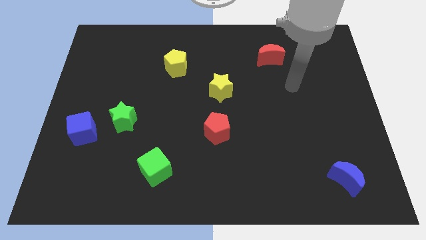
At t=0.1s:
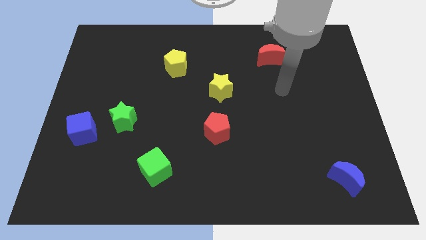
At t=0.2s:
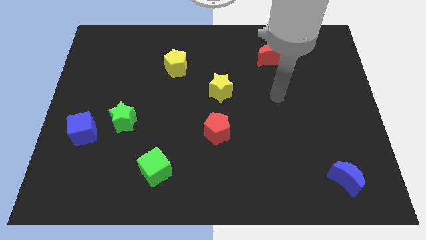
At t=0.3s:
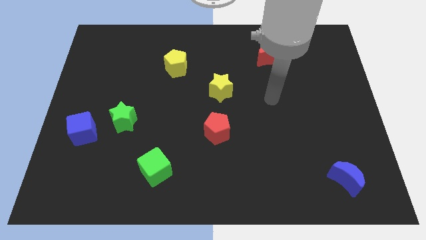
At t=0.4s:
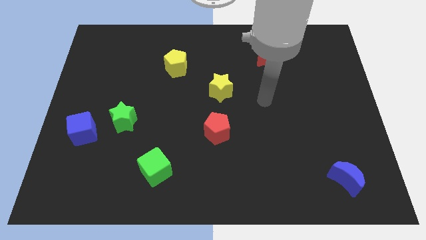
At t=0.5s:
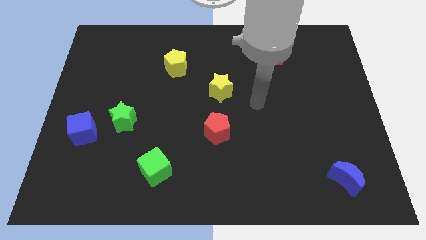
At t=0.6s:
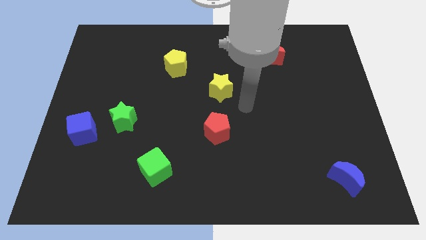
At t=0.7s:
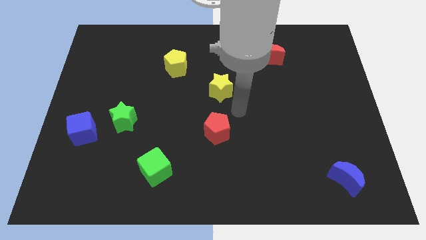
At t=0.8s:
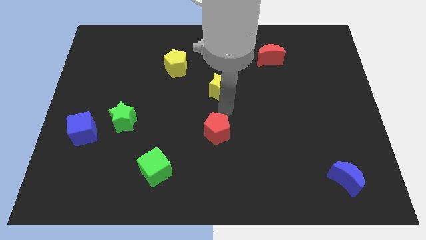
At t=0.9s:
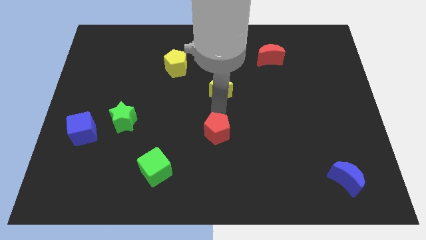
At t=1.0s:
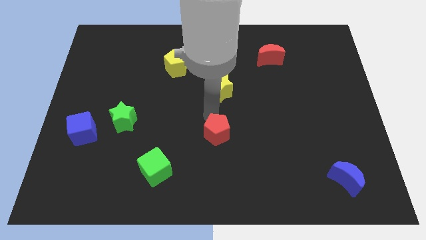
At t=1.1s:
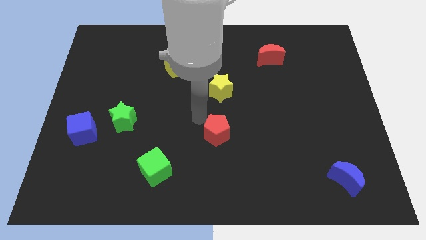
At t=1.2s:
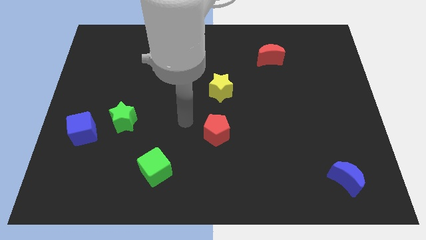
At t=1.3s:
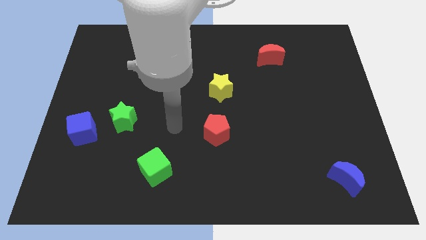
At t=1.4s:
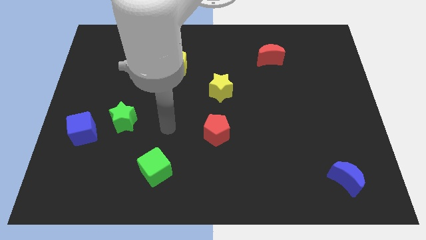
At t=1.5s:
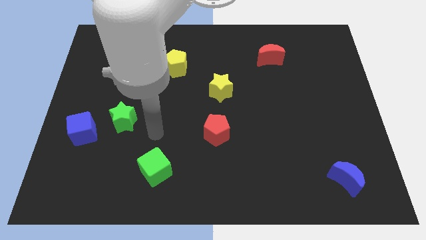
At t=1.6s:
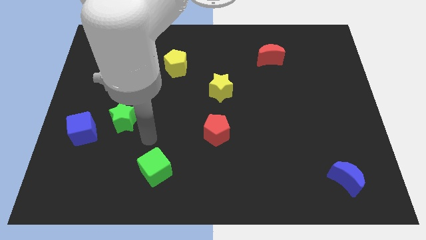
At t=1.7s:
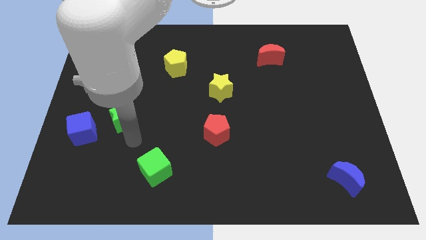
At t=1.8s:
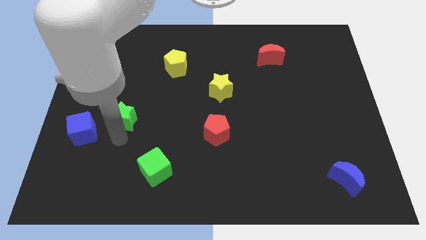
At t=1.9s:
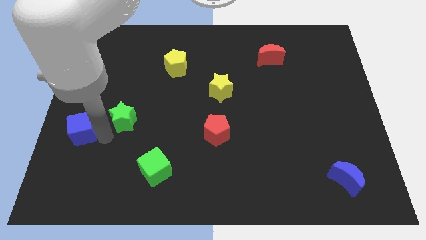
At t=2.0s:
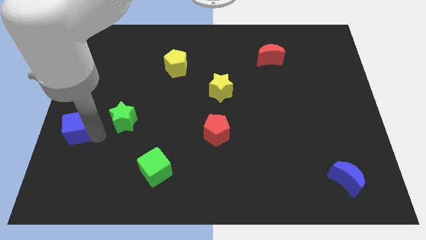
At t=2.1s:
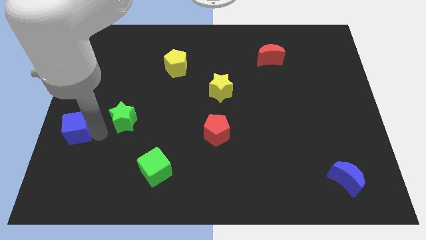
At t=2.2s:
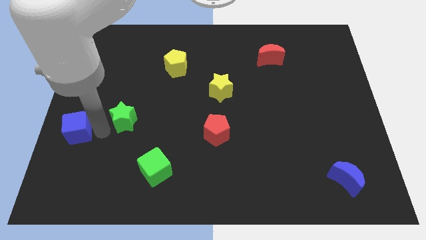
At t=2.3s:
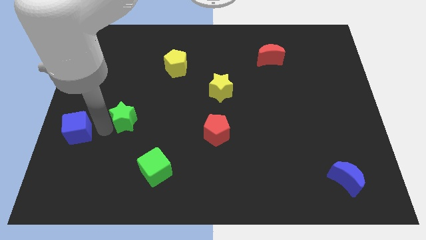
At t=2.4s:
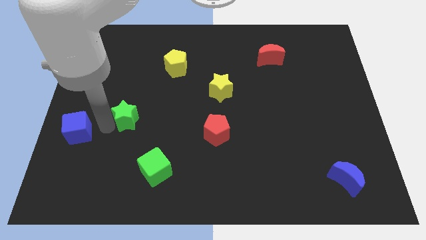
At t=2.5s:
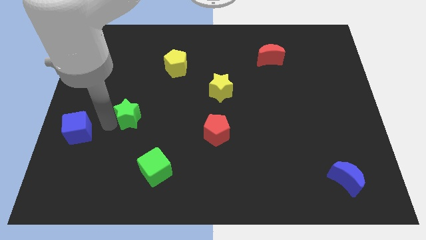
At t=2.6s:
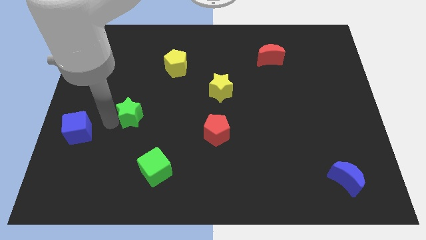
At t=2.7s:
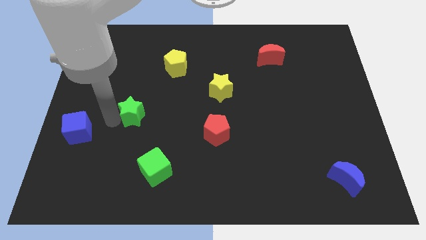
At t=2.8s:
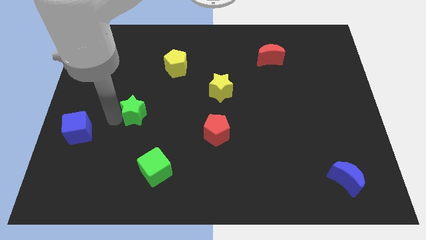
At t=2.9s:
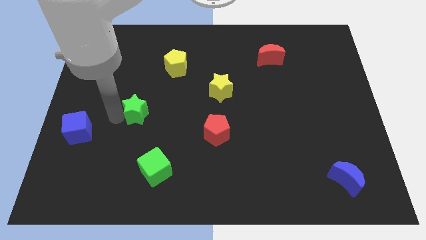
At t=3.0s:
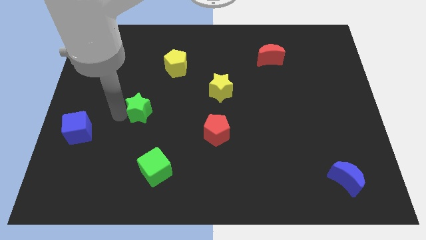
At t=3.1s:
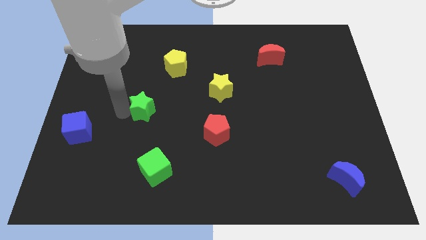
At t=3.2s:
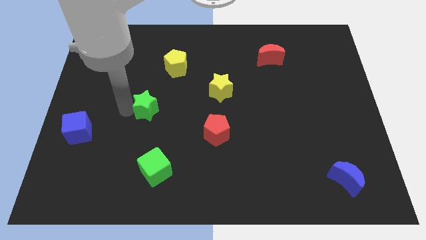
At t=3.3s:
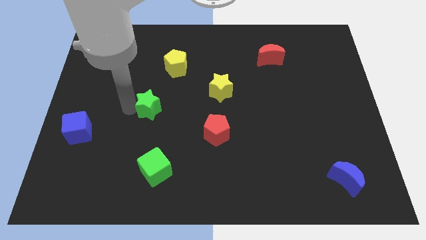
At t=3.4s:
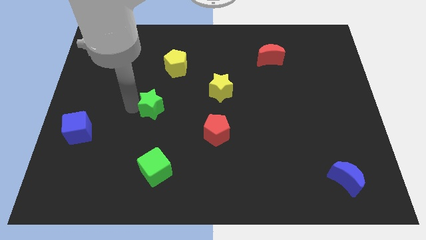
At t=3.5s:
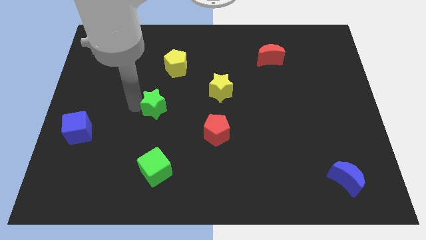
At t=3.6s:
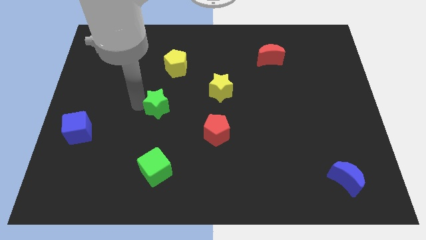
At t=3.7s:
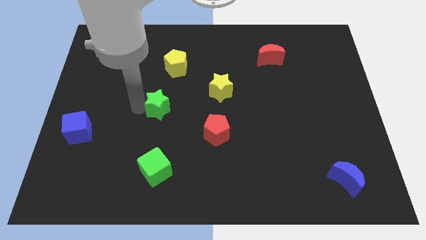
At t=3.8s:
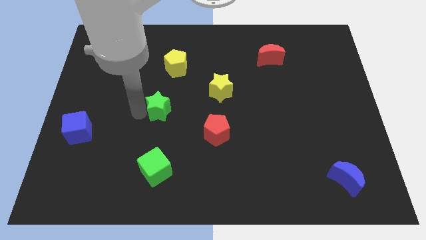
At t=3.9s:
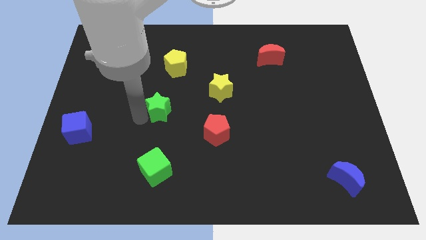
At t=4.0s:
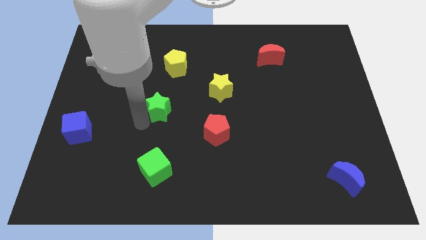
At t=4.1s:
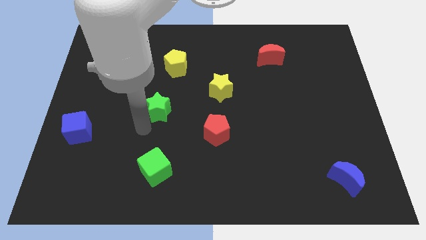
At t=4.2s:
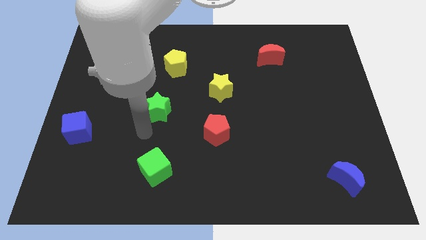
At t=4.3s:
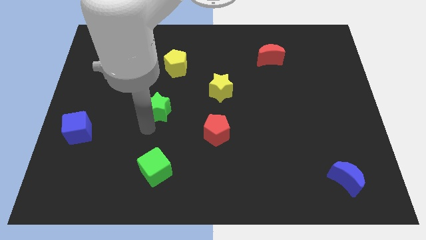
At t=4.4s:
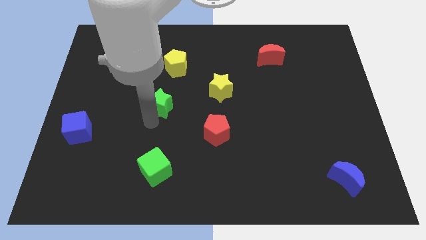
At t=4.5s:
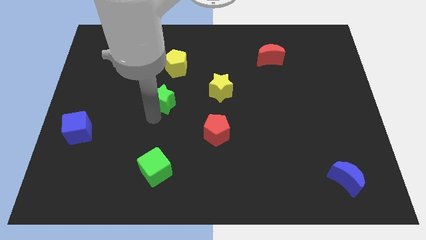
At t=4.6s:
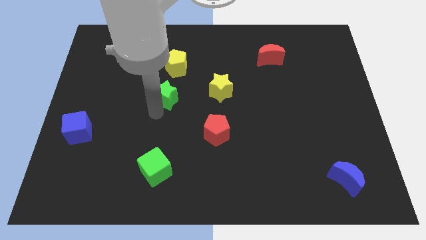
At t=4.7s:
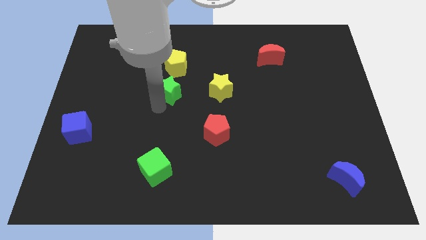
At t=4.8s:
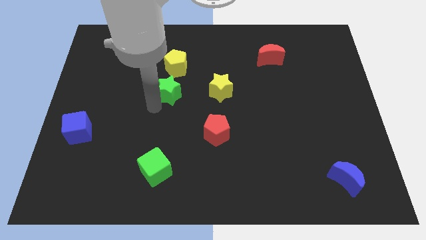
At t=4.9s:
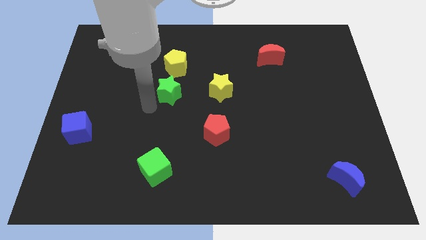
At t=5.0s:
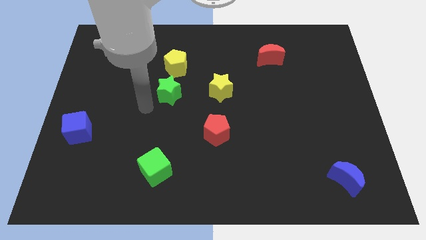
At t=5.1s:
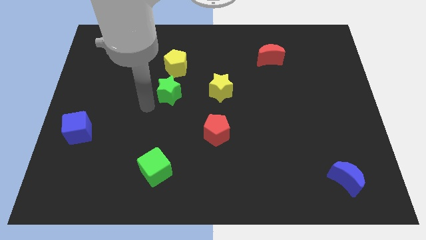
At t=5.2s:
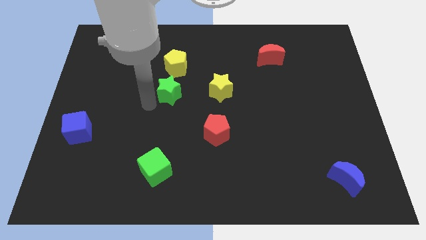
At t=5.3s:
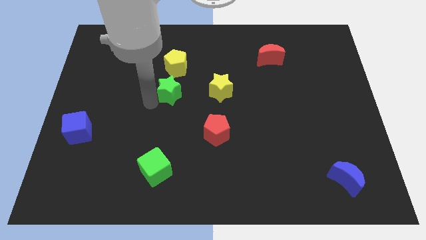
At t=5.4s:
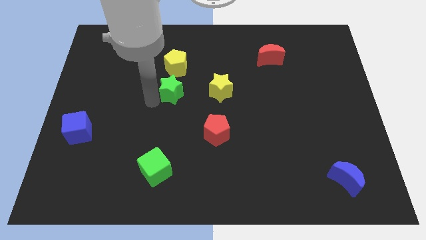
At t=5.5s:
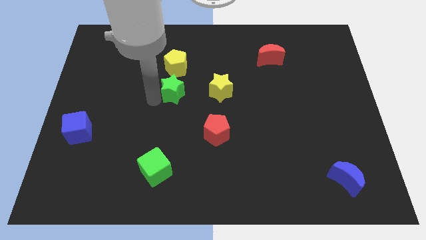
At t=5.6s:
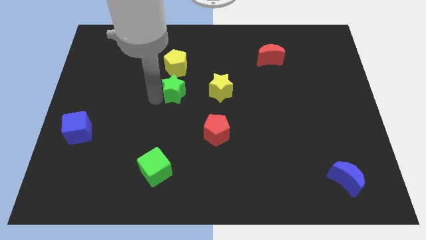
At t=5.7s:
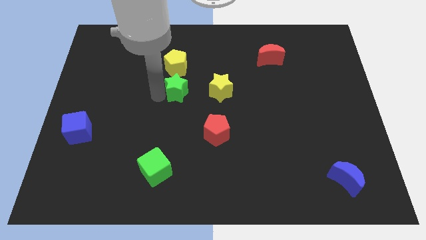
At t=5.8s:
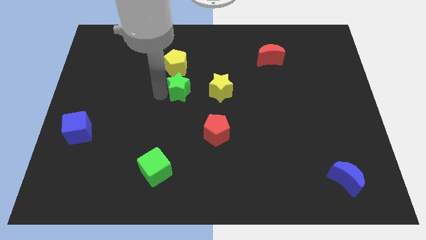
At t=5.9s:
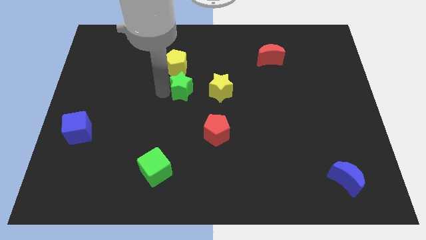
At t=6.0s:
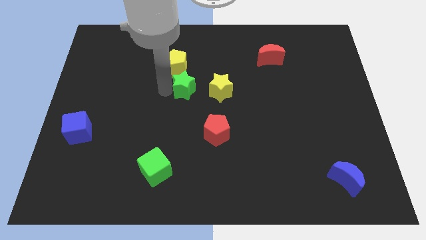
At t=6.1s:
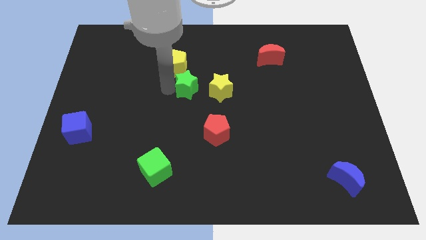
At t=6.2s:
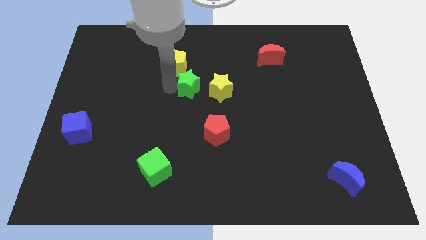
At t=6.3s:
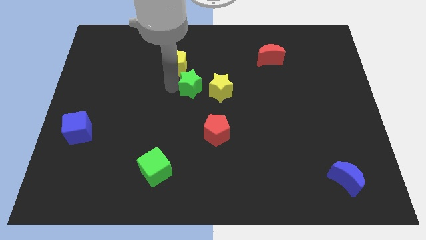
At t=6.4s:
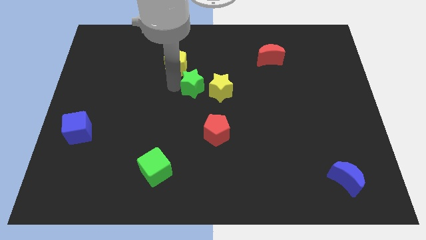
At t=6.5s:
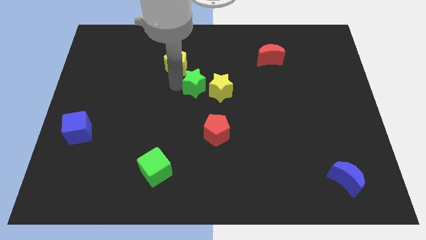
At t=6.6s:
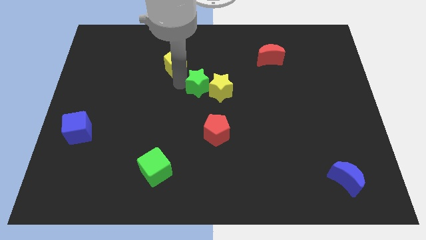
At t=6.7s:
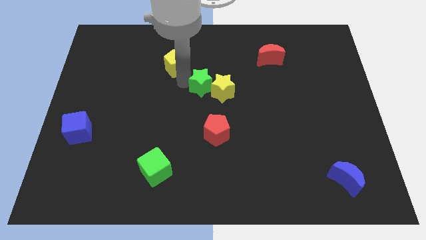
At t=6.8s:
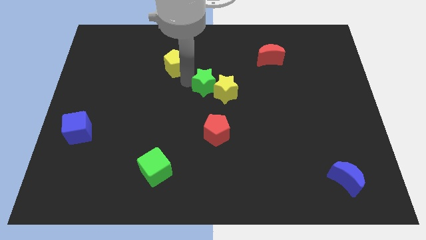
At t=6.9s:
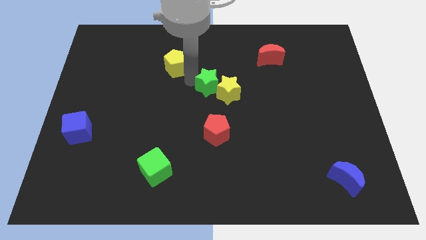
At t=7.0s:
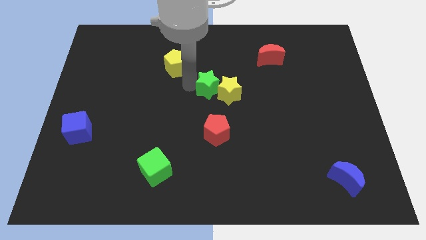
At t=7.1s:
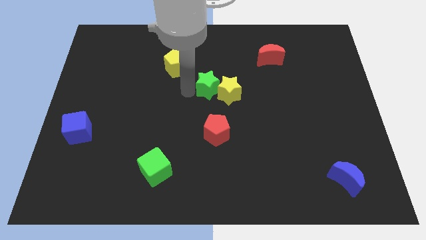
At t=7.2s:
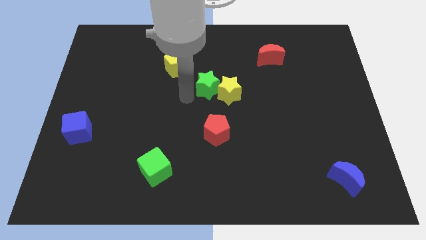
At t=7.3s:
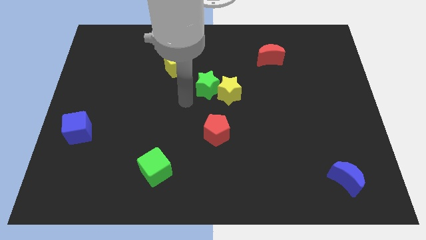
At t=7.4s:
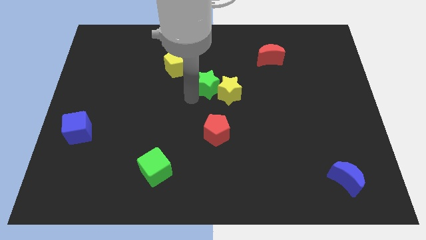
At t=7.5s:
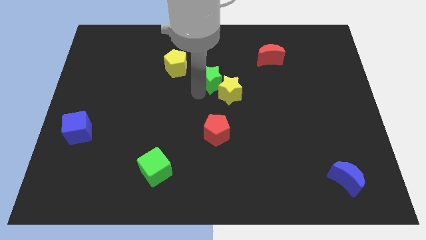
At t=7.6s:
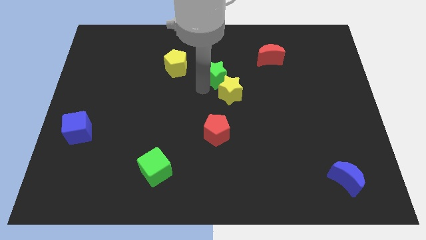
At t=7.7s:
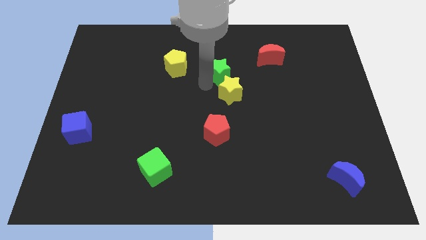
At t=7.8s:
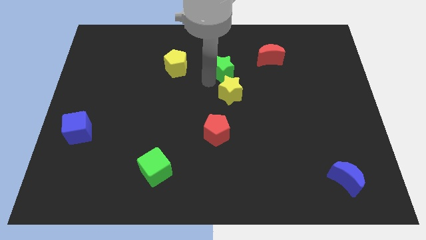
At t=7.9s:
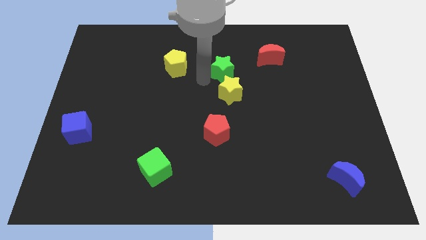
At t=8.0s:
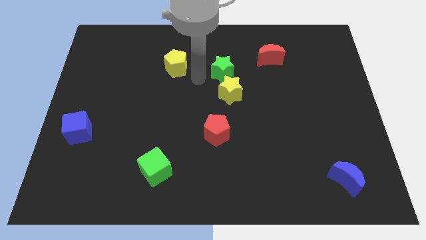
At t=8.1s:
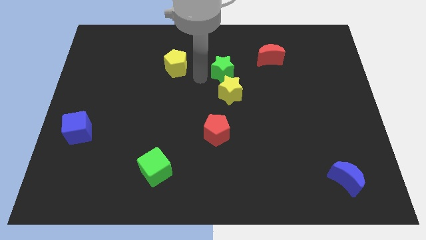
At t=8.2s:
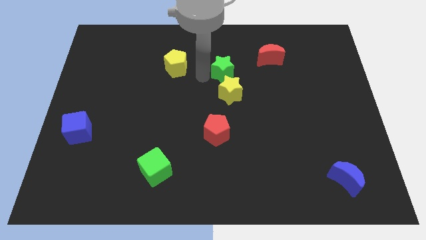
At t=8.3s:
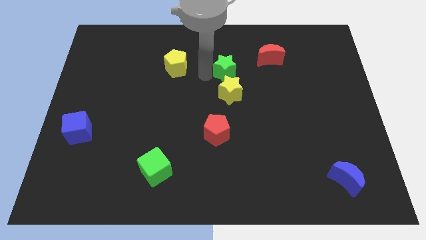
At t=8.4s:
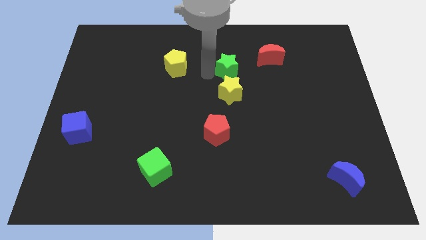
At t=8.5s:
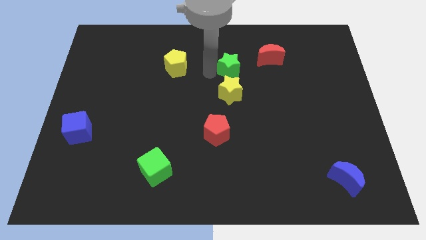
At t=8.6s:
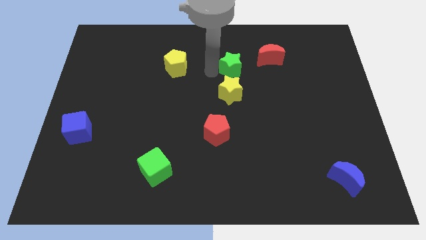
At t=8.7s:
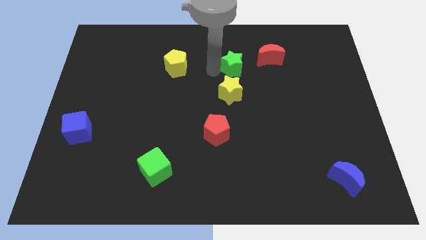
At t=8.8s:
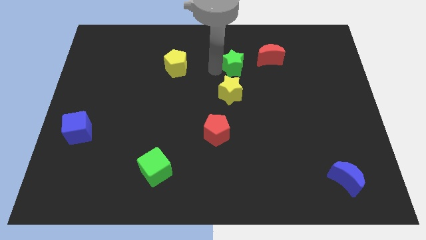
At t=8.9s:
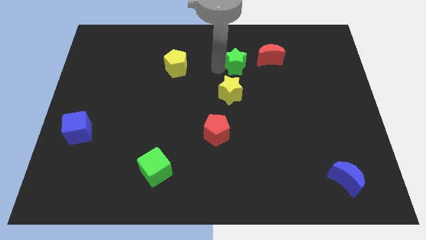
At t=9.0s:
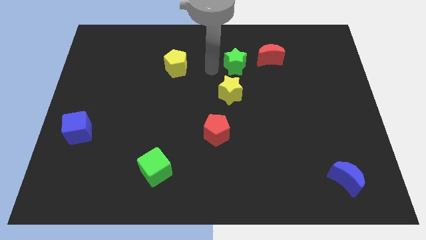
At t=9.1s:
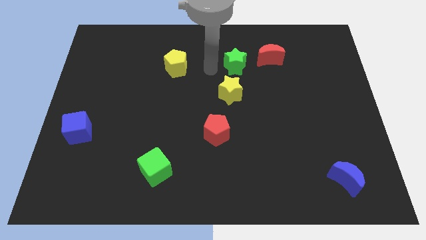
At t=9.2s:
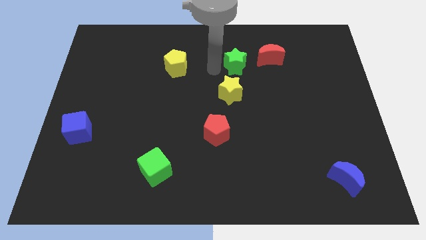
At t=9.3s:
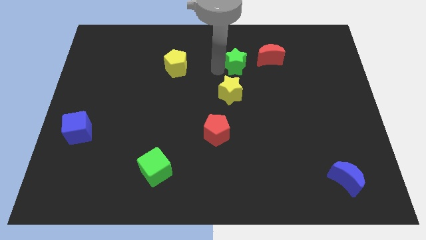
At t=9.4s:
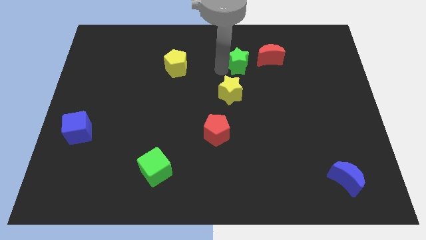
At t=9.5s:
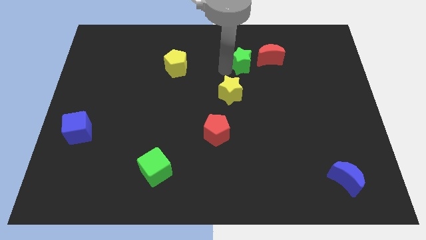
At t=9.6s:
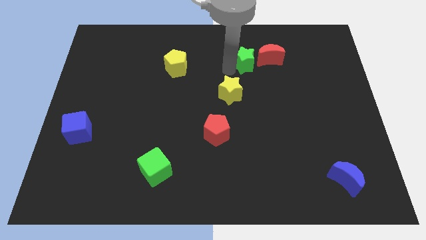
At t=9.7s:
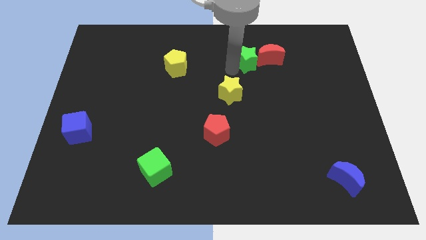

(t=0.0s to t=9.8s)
put the green star next to the red moon
